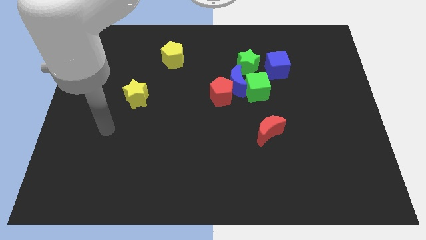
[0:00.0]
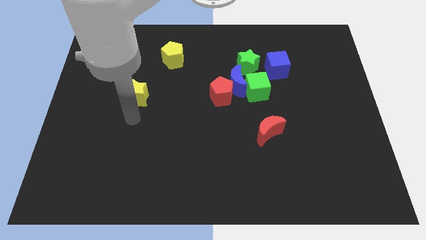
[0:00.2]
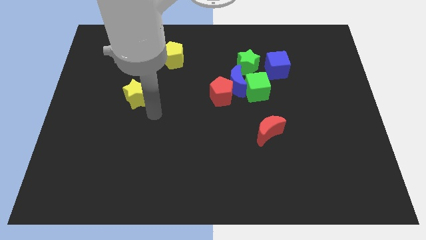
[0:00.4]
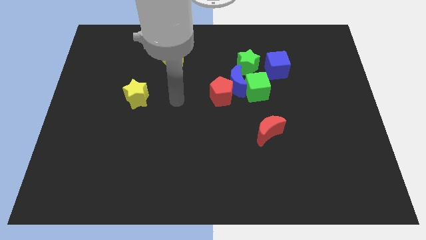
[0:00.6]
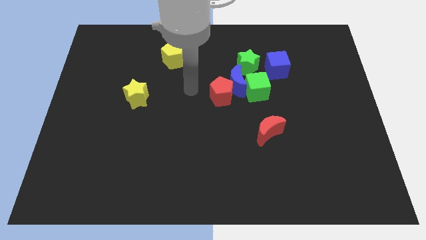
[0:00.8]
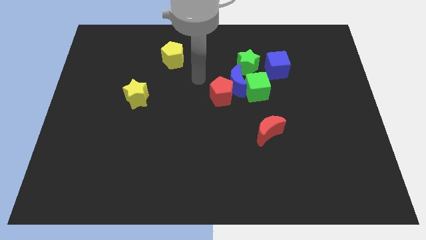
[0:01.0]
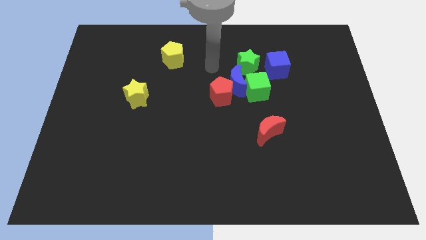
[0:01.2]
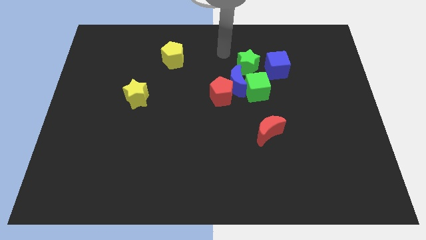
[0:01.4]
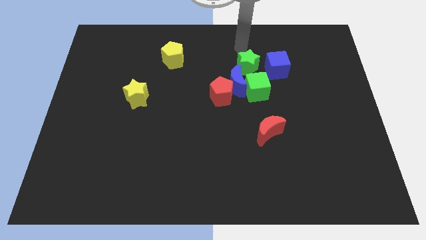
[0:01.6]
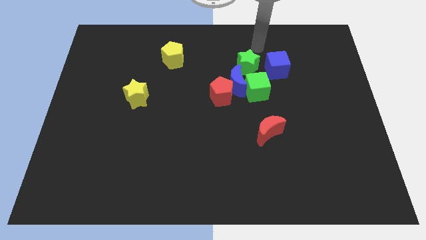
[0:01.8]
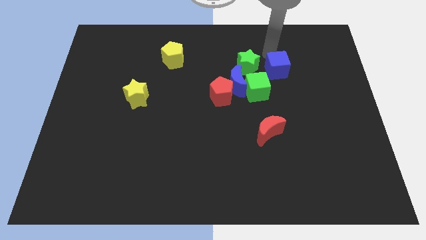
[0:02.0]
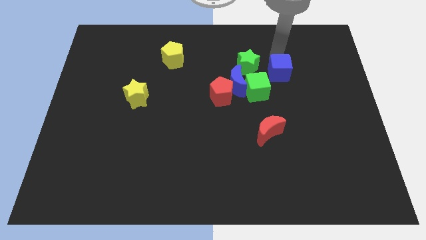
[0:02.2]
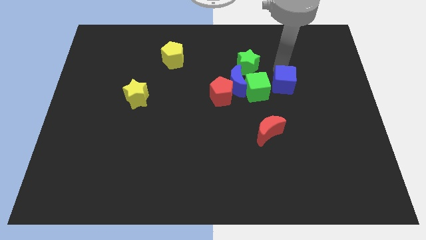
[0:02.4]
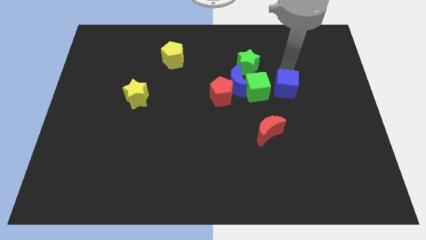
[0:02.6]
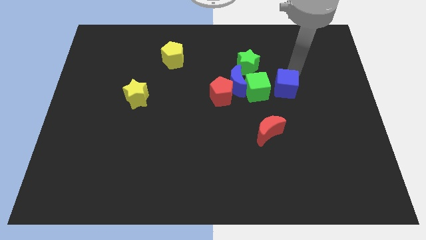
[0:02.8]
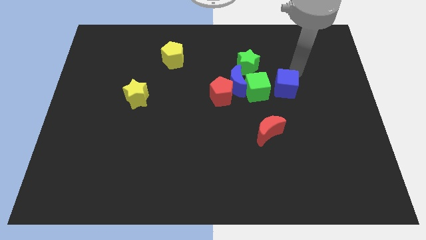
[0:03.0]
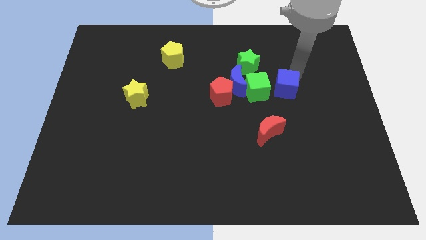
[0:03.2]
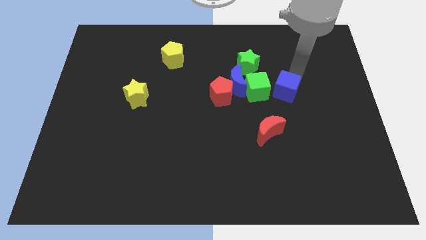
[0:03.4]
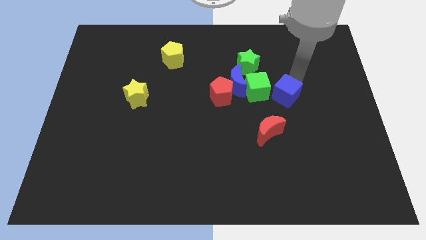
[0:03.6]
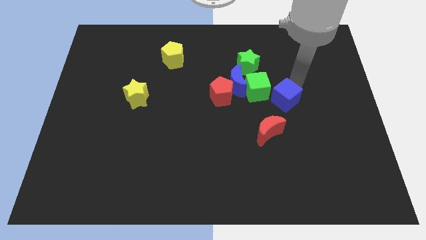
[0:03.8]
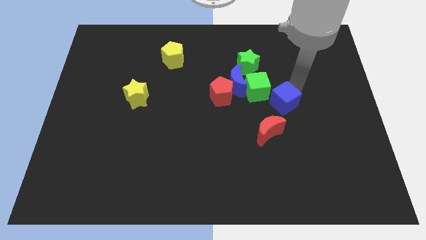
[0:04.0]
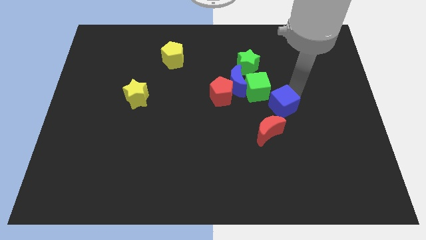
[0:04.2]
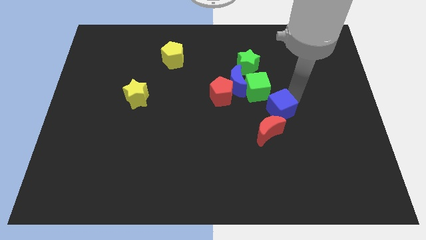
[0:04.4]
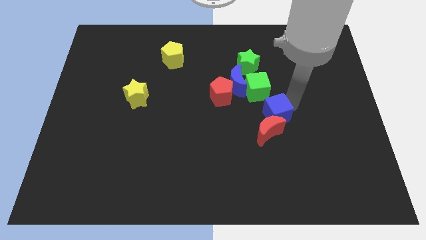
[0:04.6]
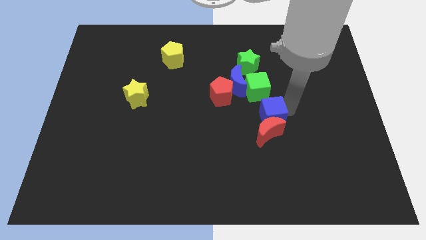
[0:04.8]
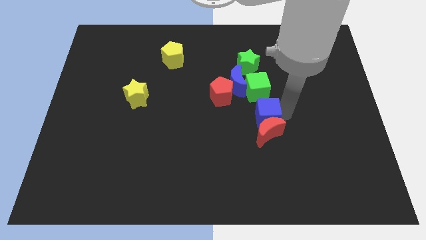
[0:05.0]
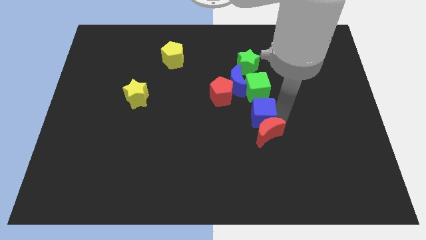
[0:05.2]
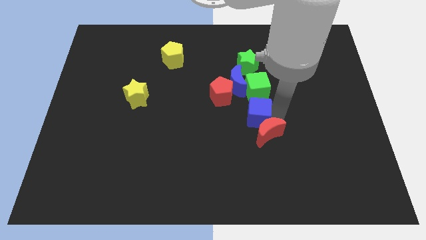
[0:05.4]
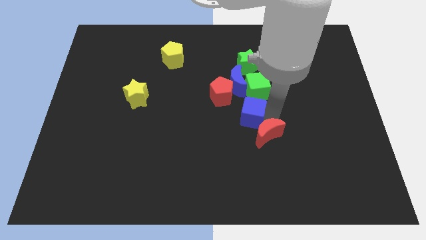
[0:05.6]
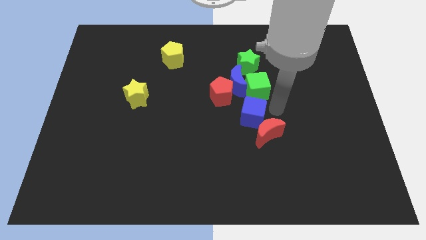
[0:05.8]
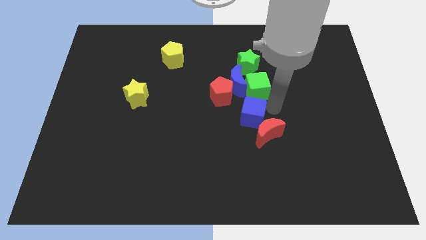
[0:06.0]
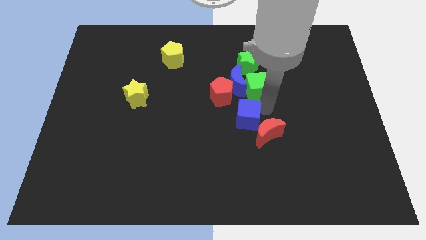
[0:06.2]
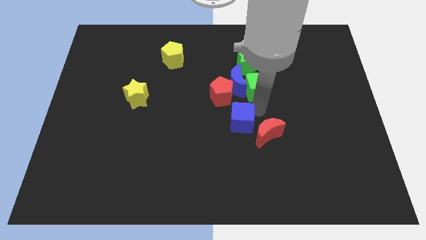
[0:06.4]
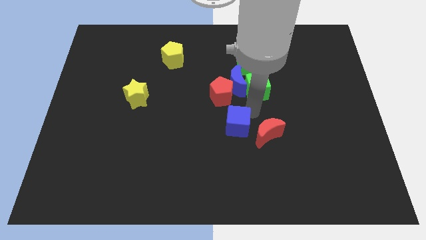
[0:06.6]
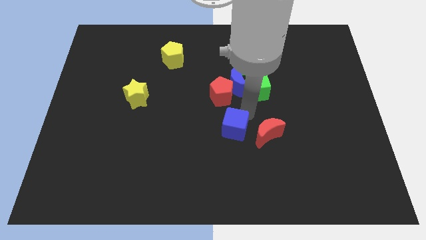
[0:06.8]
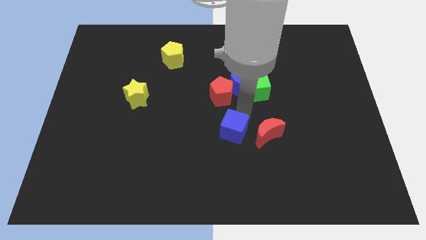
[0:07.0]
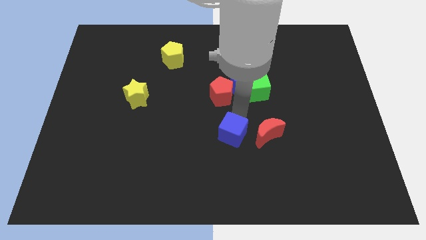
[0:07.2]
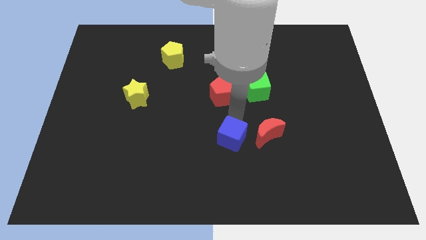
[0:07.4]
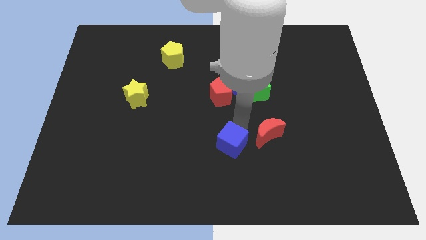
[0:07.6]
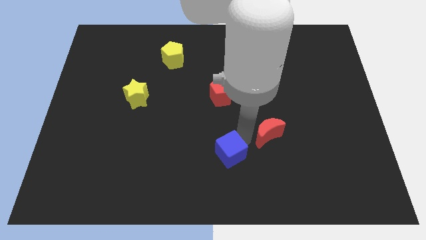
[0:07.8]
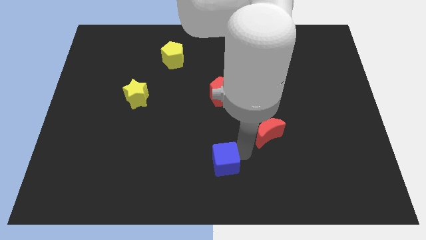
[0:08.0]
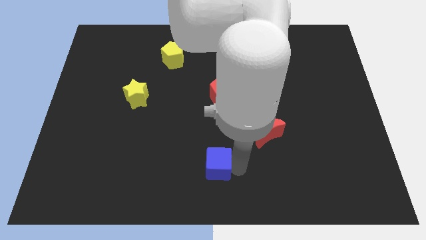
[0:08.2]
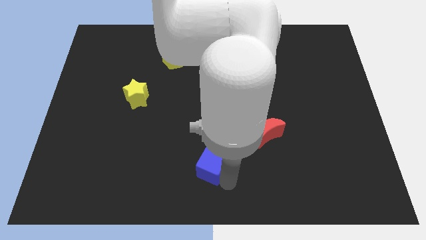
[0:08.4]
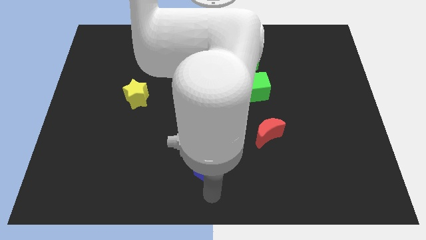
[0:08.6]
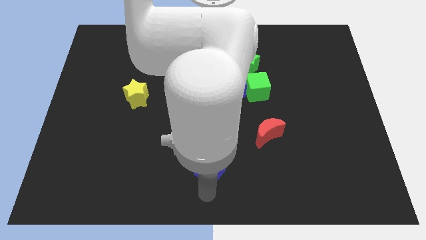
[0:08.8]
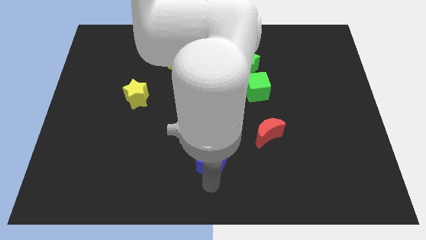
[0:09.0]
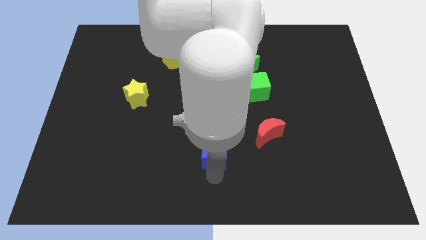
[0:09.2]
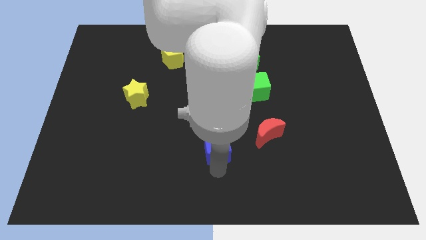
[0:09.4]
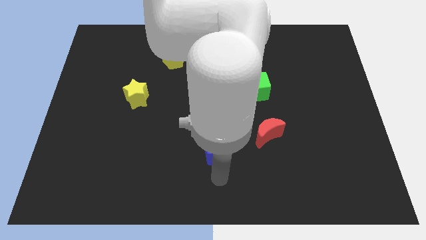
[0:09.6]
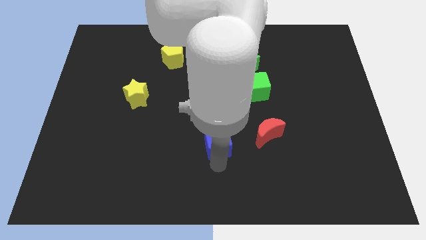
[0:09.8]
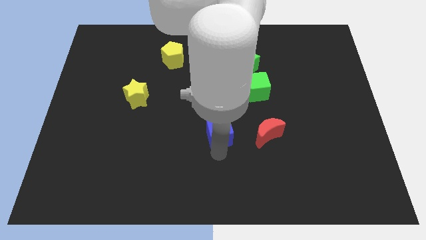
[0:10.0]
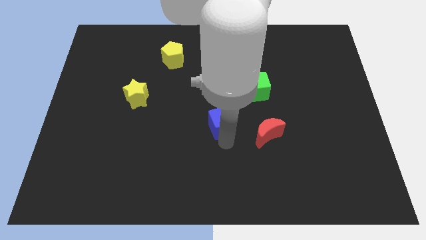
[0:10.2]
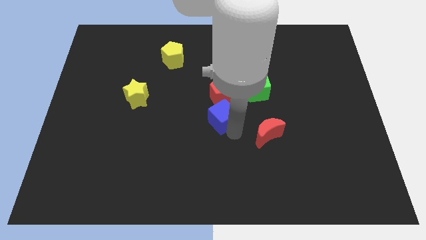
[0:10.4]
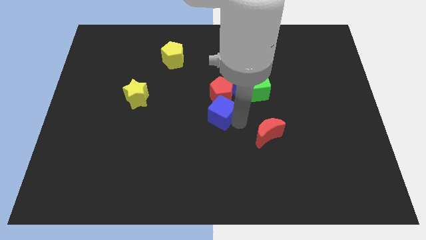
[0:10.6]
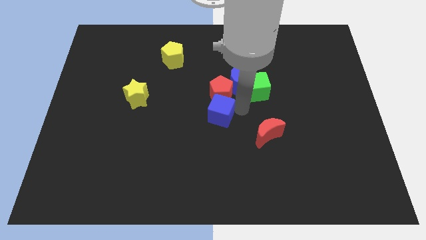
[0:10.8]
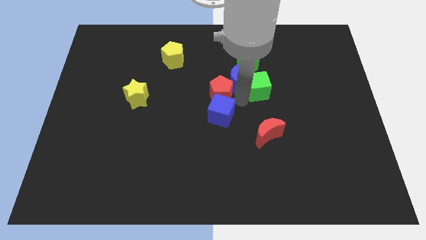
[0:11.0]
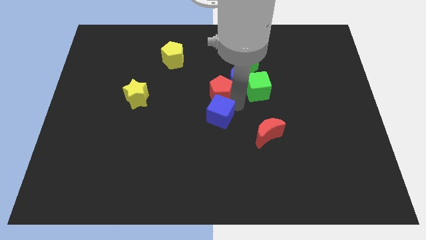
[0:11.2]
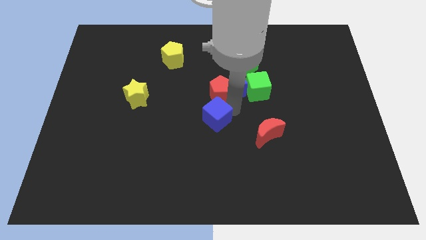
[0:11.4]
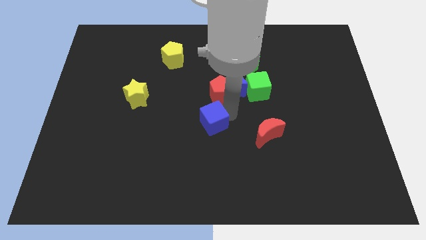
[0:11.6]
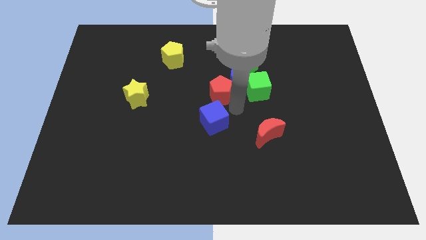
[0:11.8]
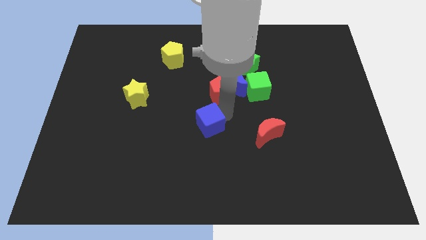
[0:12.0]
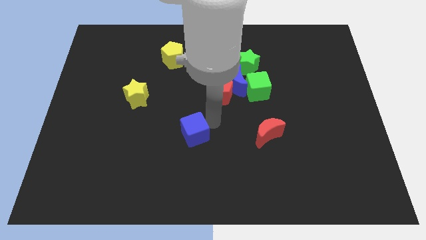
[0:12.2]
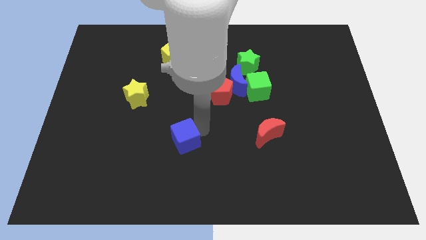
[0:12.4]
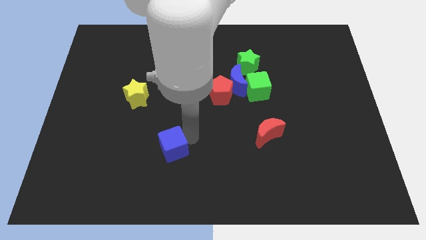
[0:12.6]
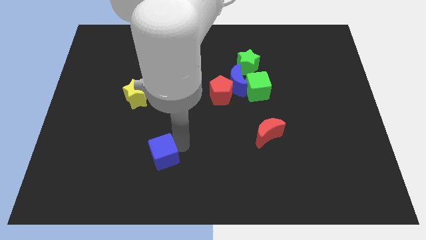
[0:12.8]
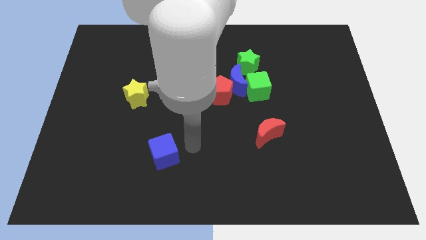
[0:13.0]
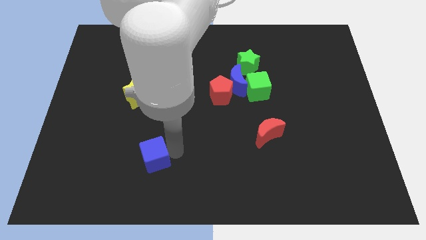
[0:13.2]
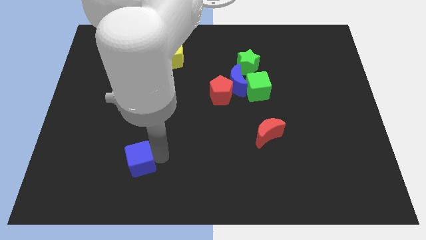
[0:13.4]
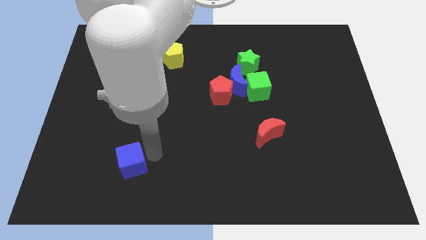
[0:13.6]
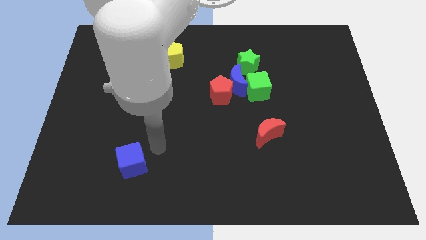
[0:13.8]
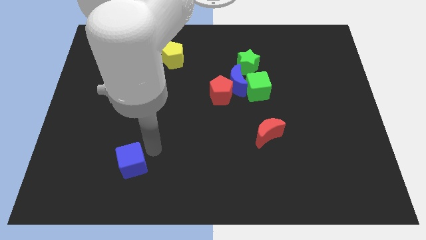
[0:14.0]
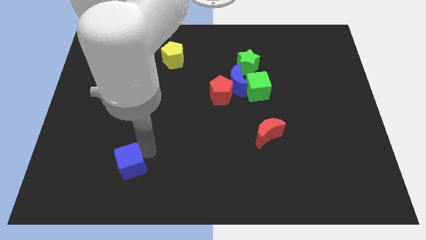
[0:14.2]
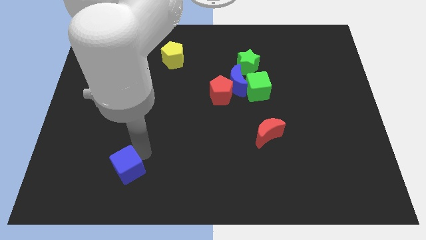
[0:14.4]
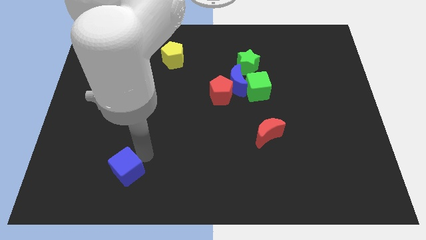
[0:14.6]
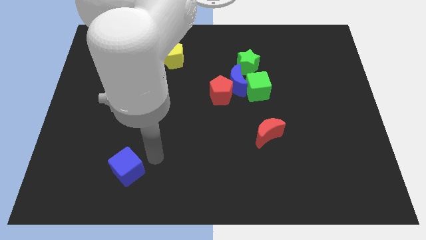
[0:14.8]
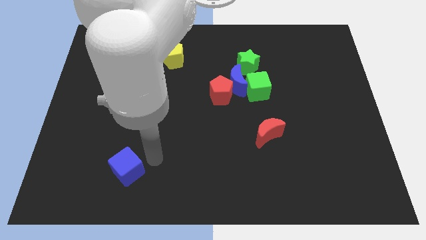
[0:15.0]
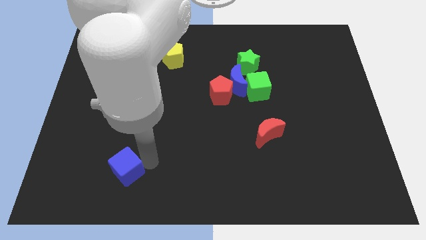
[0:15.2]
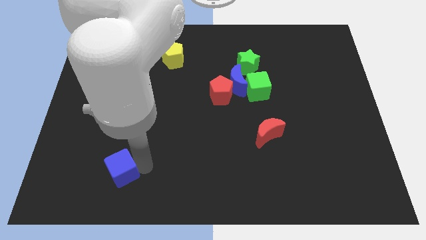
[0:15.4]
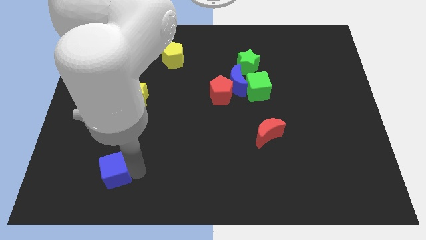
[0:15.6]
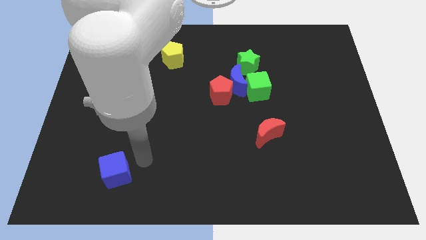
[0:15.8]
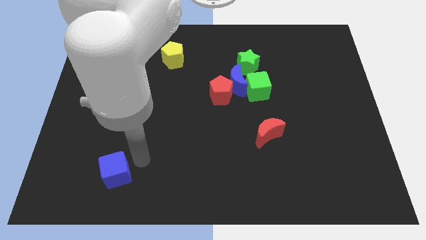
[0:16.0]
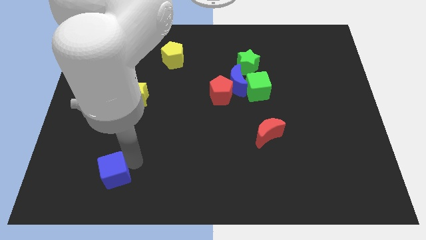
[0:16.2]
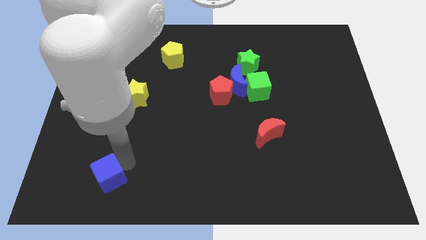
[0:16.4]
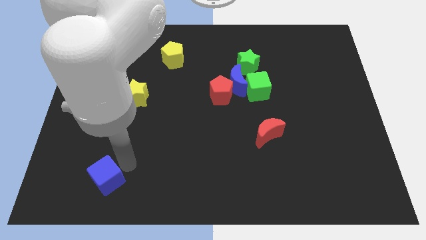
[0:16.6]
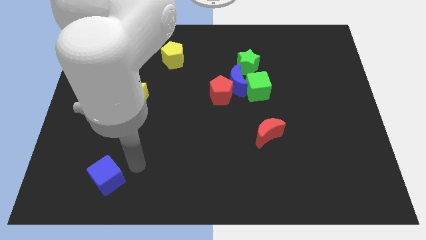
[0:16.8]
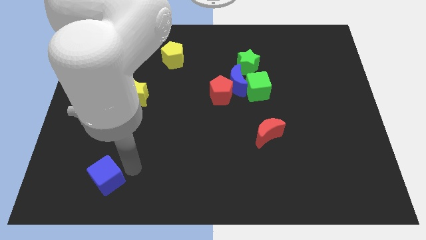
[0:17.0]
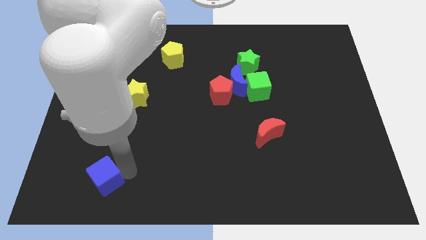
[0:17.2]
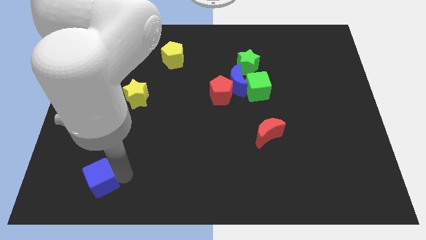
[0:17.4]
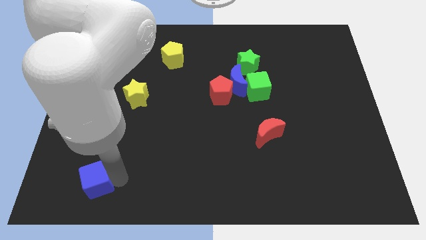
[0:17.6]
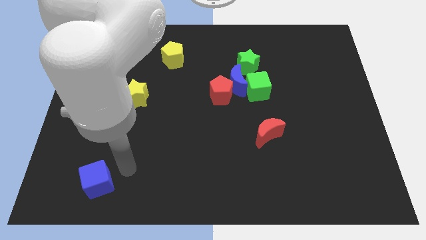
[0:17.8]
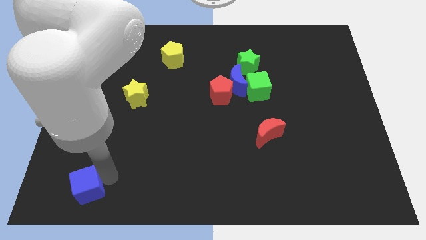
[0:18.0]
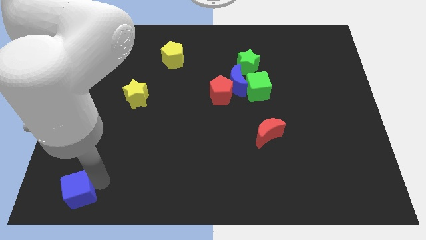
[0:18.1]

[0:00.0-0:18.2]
put the blue cube to the lower left corner
